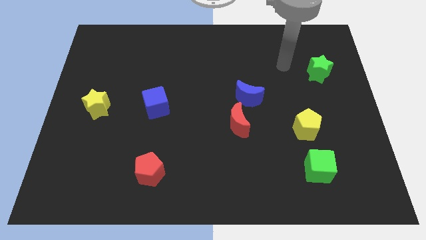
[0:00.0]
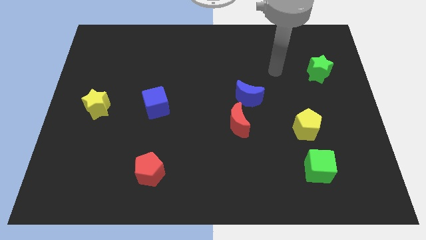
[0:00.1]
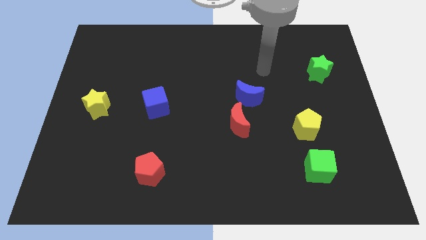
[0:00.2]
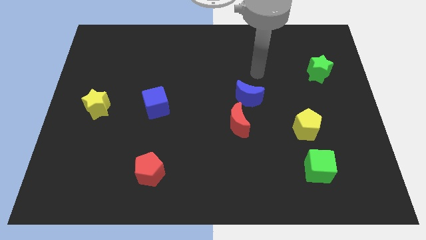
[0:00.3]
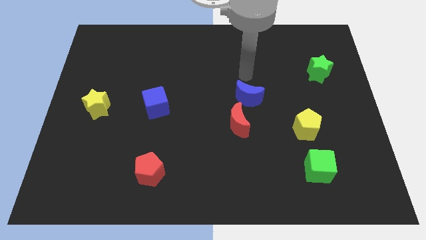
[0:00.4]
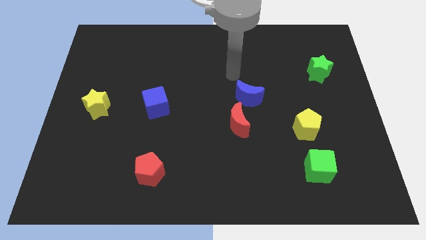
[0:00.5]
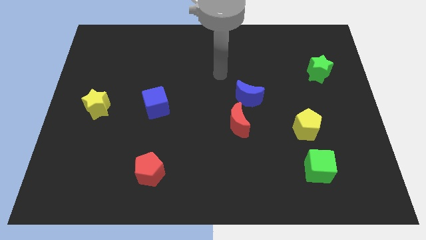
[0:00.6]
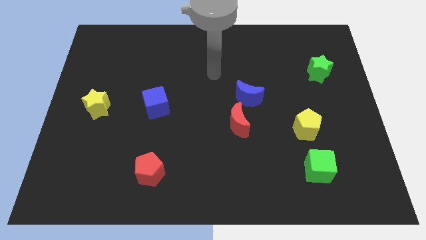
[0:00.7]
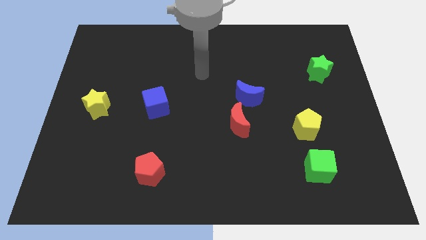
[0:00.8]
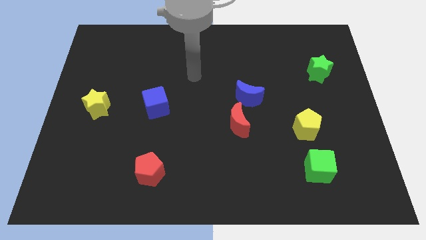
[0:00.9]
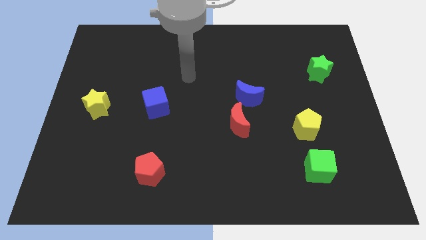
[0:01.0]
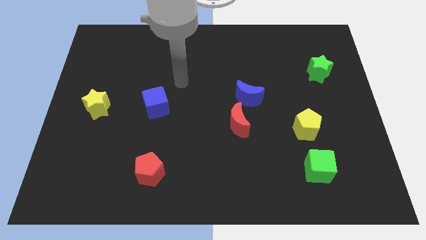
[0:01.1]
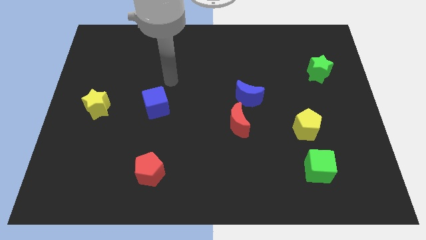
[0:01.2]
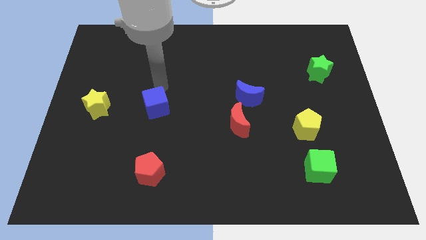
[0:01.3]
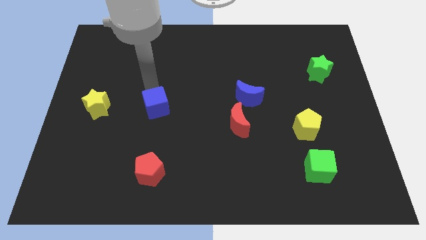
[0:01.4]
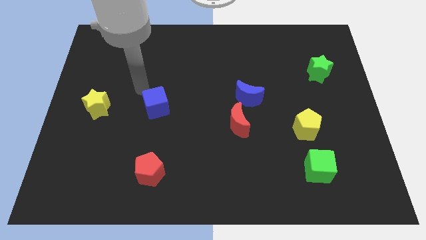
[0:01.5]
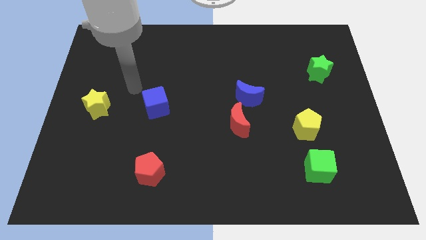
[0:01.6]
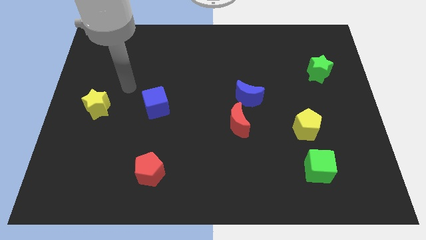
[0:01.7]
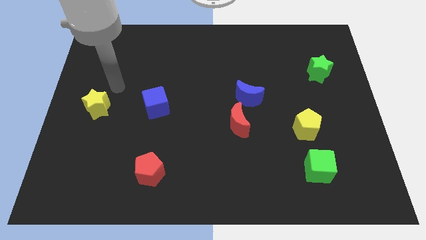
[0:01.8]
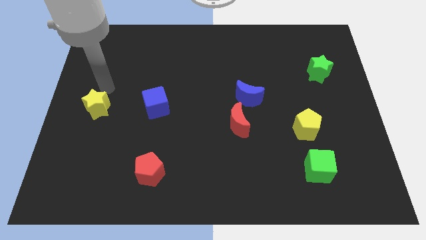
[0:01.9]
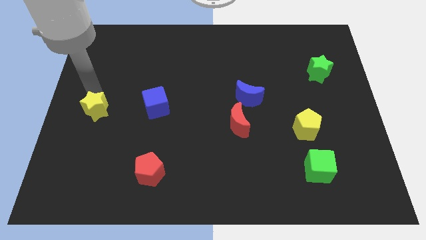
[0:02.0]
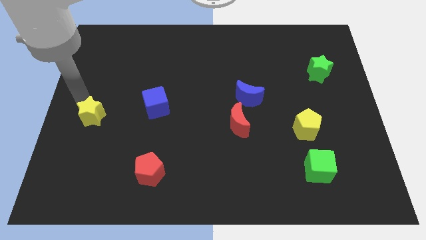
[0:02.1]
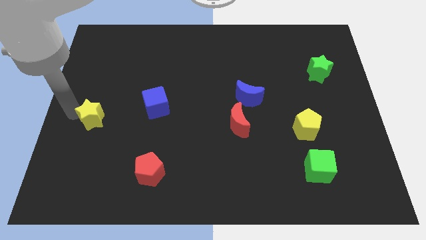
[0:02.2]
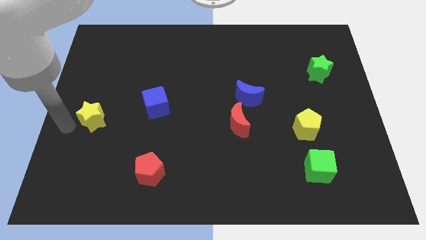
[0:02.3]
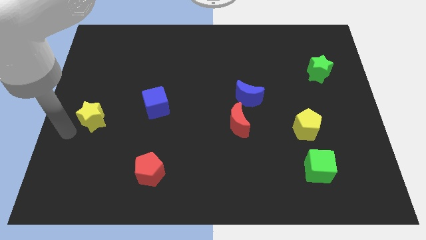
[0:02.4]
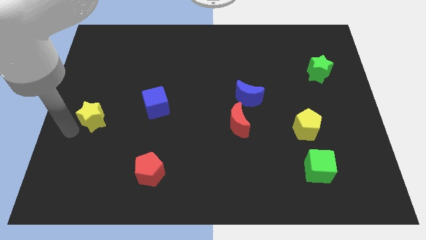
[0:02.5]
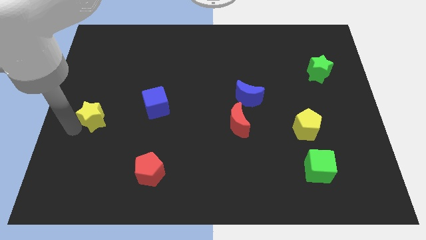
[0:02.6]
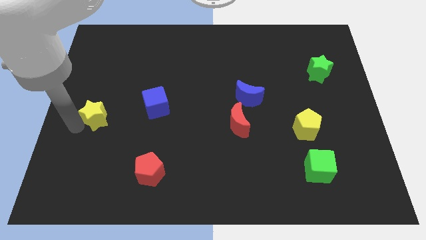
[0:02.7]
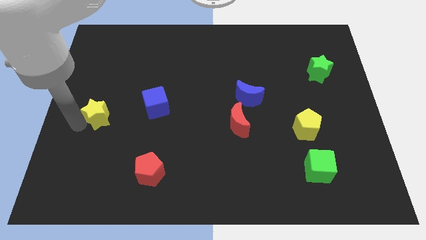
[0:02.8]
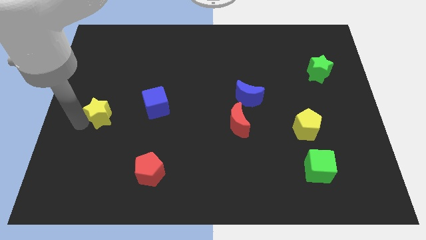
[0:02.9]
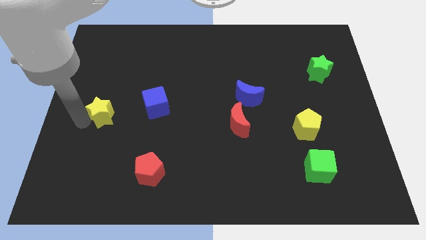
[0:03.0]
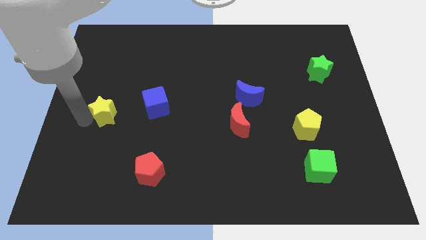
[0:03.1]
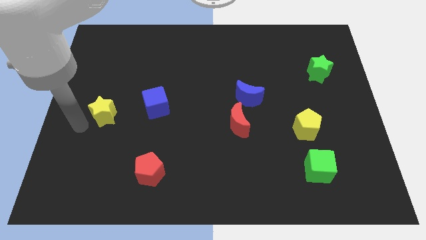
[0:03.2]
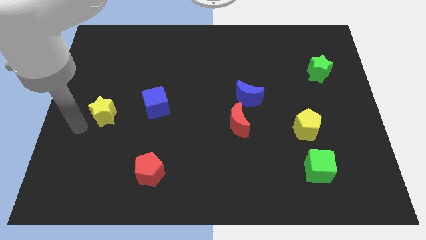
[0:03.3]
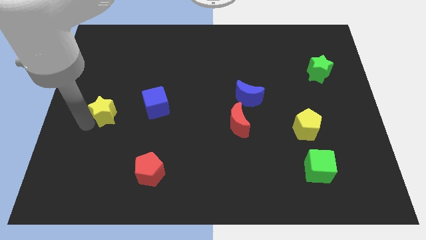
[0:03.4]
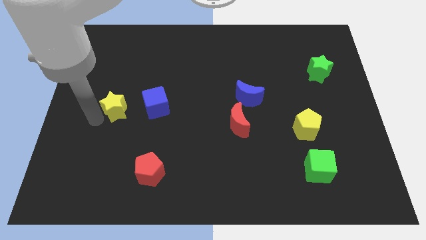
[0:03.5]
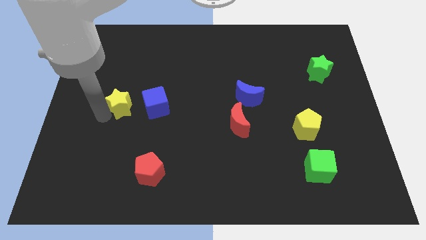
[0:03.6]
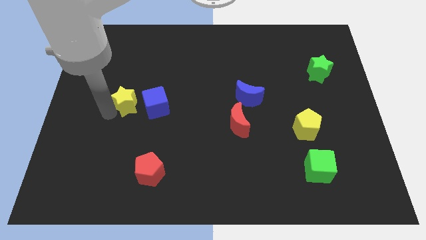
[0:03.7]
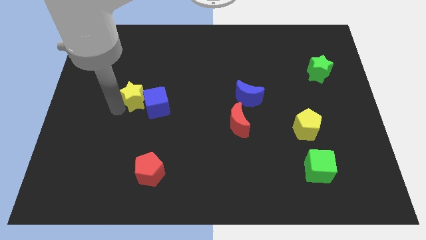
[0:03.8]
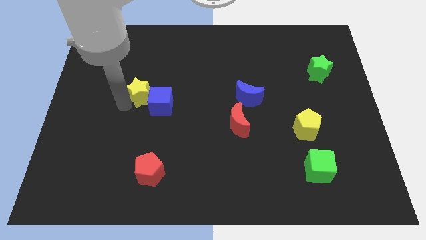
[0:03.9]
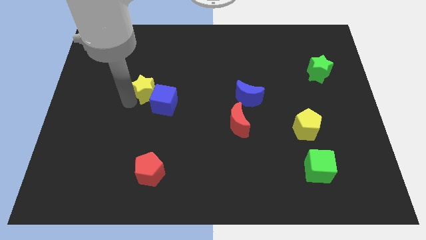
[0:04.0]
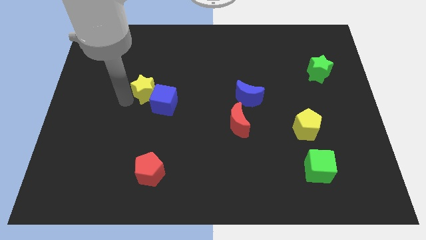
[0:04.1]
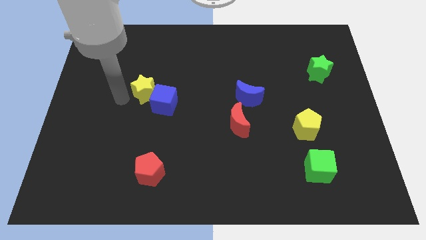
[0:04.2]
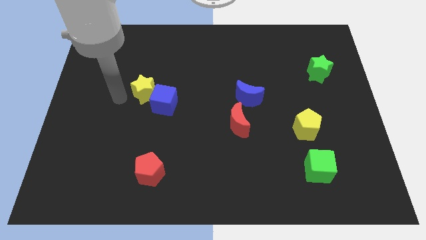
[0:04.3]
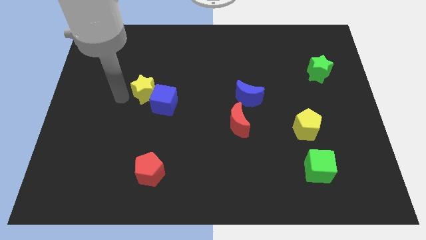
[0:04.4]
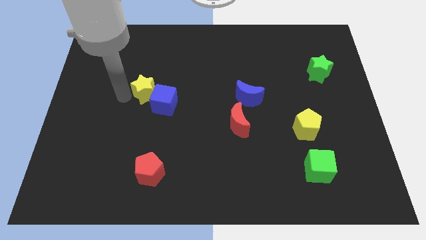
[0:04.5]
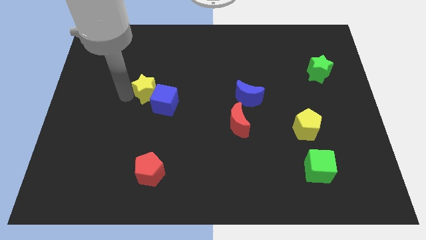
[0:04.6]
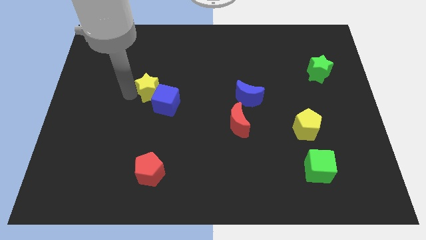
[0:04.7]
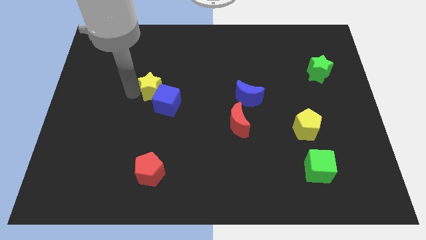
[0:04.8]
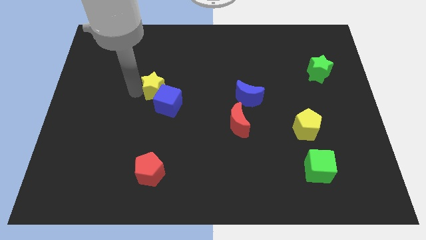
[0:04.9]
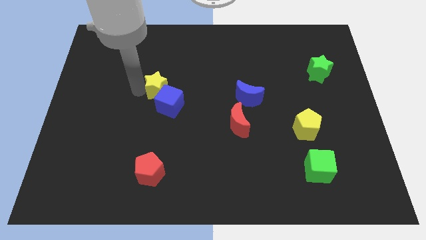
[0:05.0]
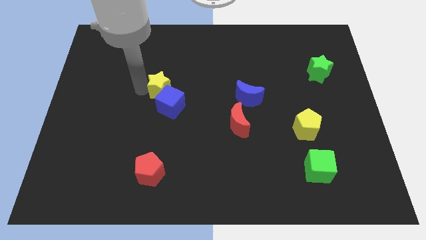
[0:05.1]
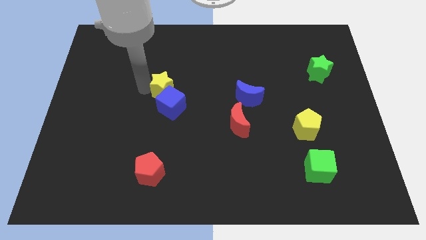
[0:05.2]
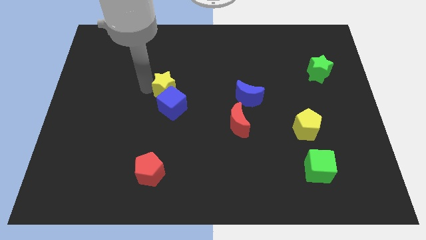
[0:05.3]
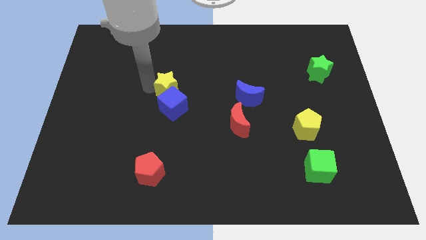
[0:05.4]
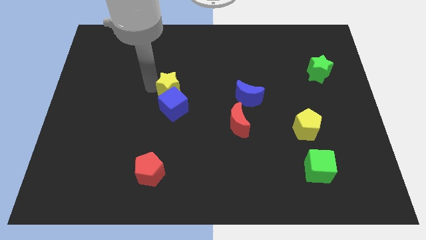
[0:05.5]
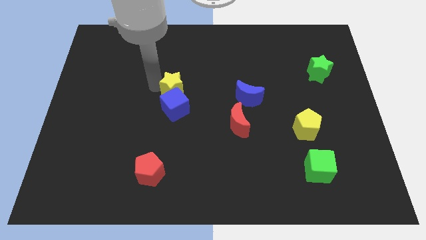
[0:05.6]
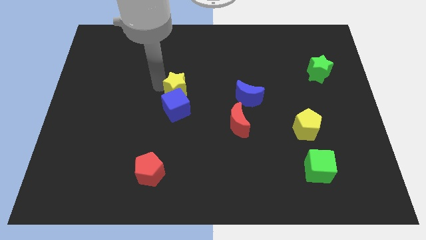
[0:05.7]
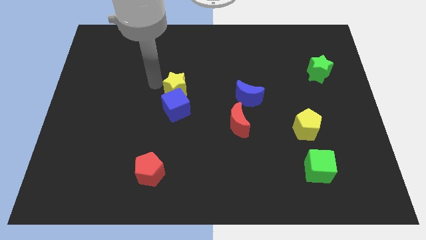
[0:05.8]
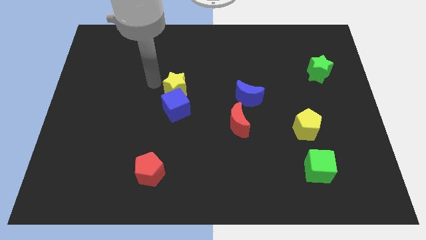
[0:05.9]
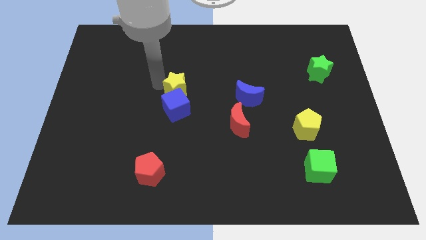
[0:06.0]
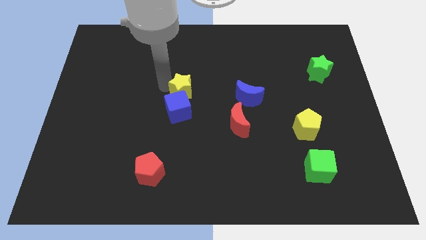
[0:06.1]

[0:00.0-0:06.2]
move the yellow star to the left side of the blue moon
